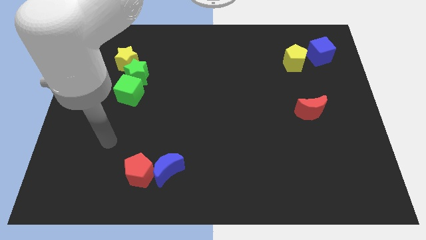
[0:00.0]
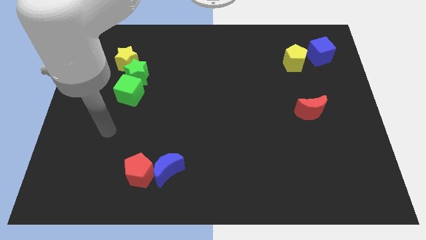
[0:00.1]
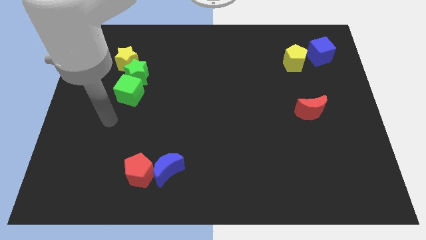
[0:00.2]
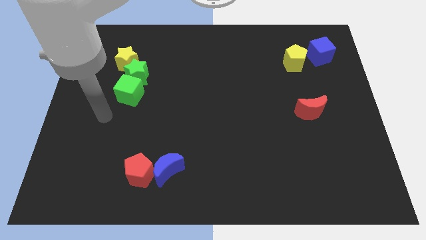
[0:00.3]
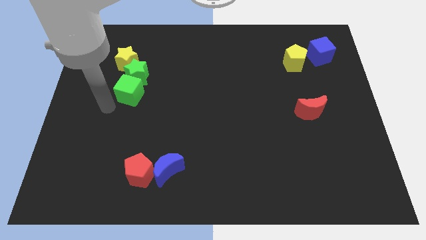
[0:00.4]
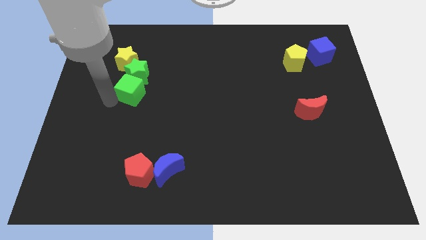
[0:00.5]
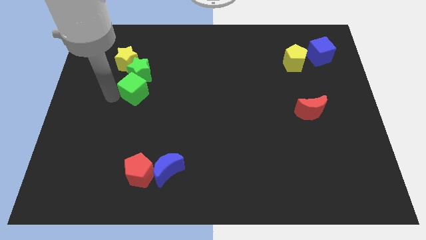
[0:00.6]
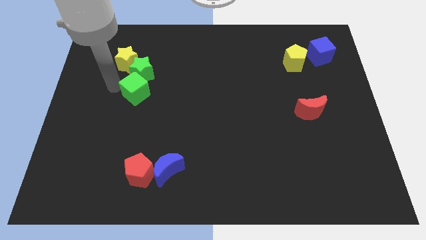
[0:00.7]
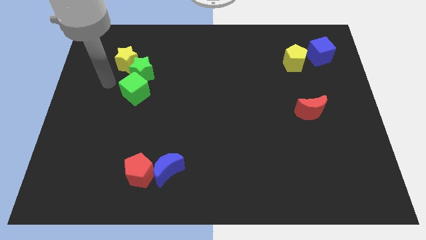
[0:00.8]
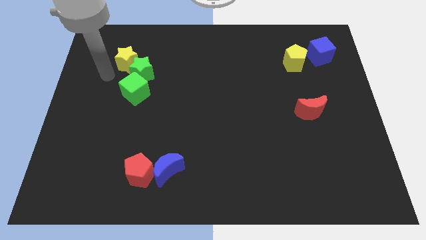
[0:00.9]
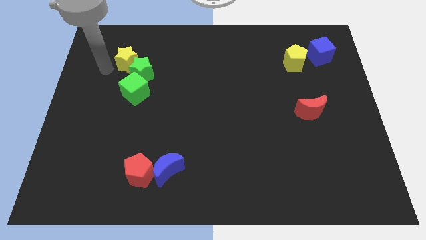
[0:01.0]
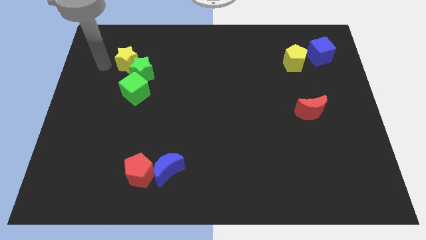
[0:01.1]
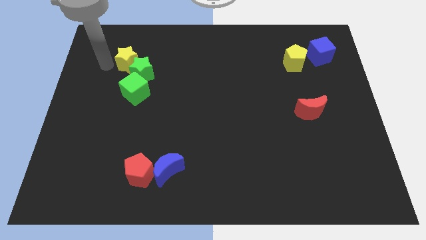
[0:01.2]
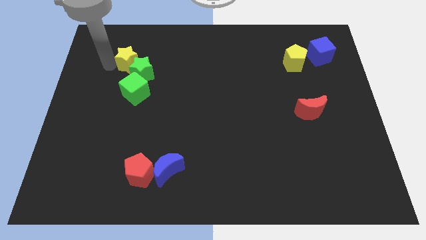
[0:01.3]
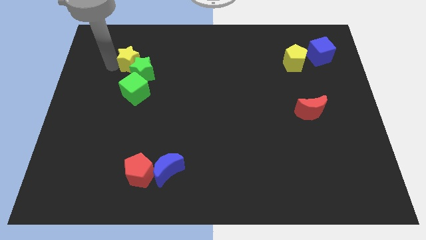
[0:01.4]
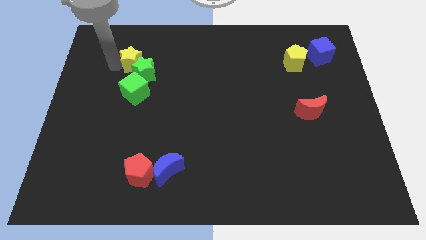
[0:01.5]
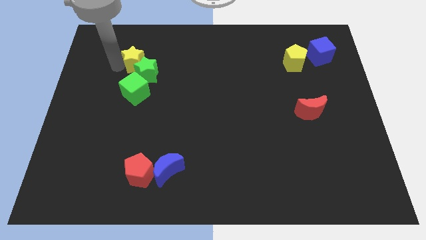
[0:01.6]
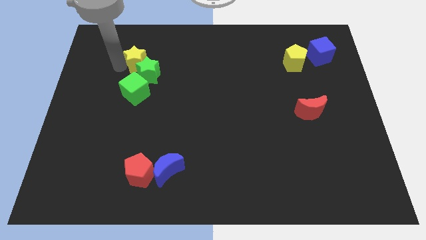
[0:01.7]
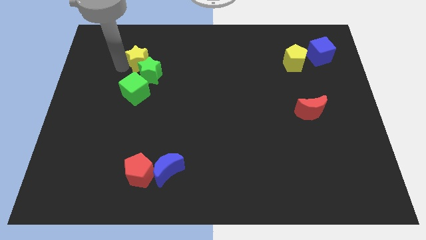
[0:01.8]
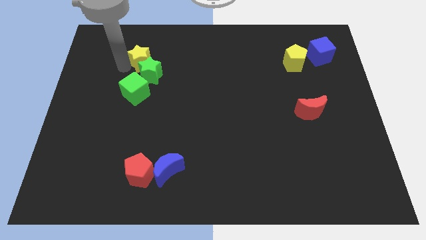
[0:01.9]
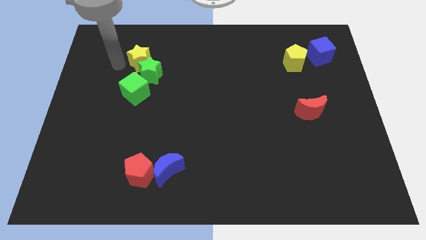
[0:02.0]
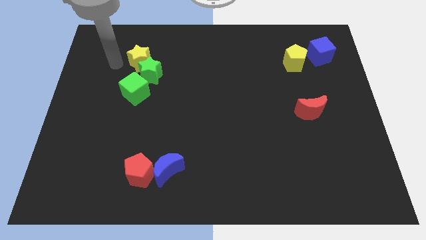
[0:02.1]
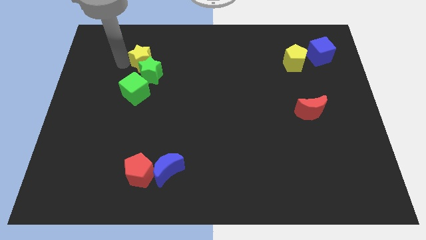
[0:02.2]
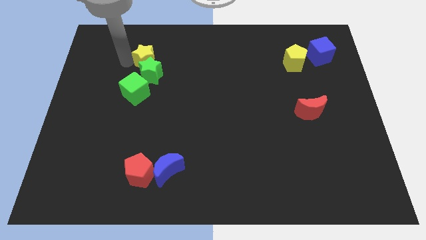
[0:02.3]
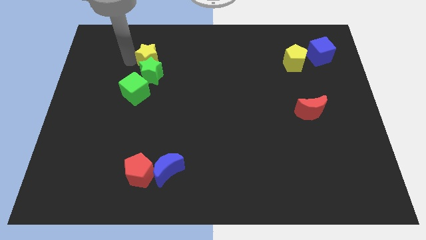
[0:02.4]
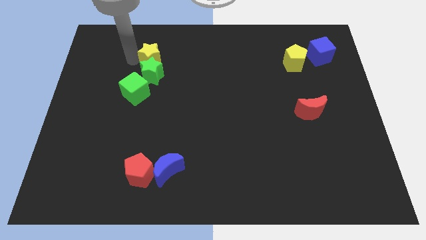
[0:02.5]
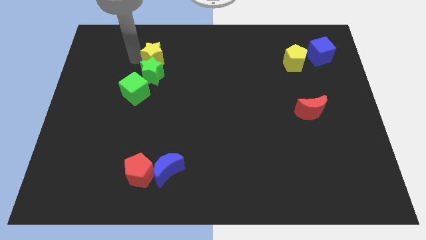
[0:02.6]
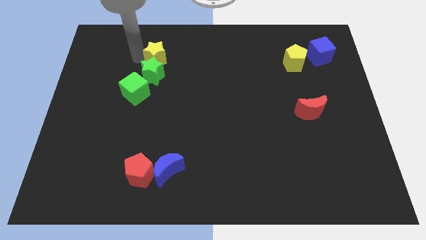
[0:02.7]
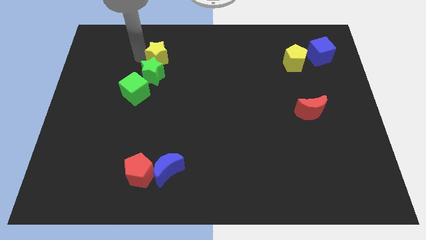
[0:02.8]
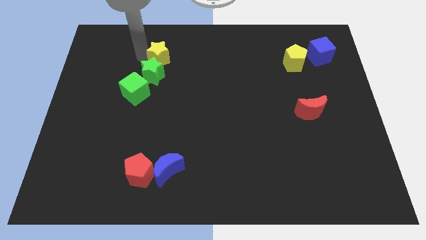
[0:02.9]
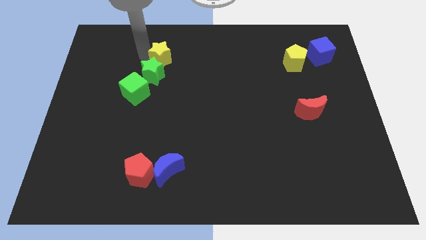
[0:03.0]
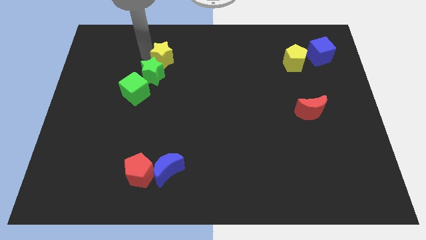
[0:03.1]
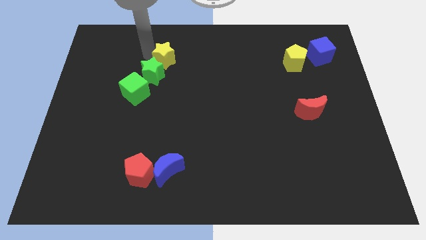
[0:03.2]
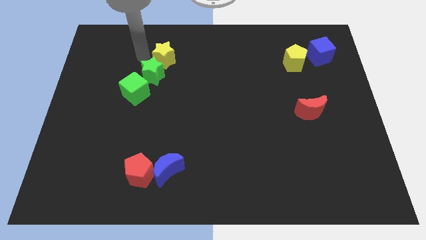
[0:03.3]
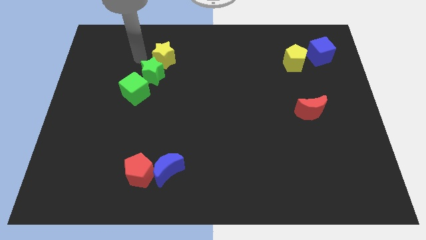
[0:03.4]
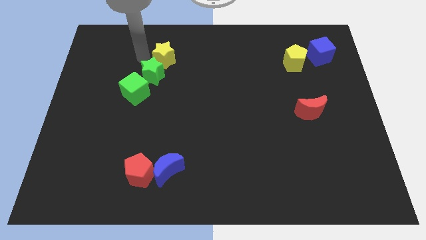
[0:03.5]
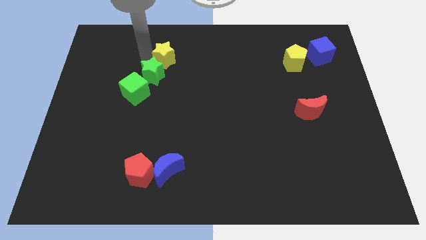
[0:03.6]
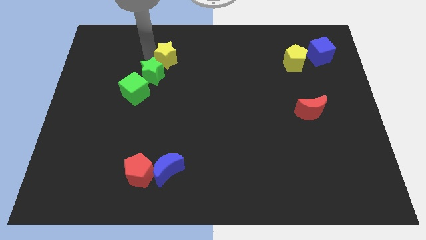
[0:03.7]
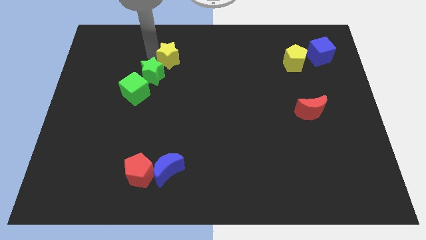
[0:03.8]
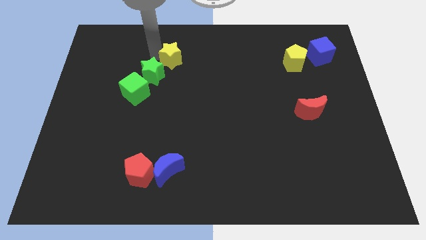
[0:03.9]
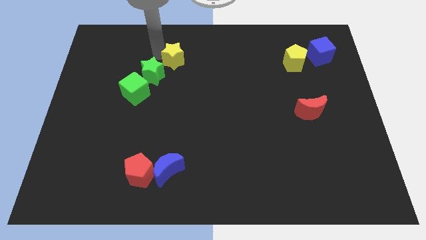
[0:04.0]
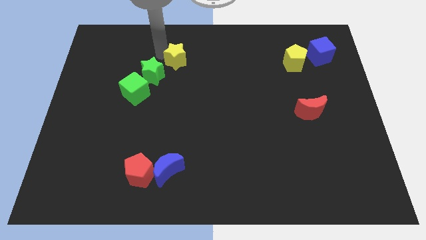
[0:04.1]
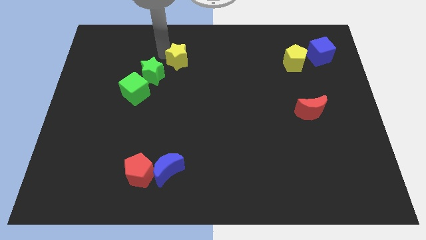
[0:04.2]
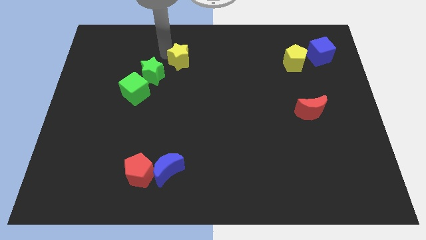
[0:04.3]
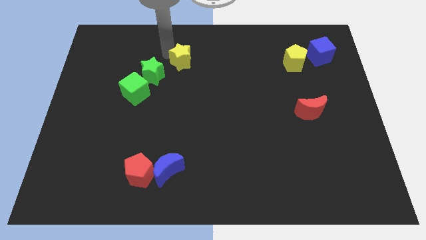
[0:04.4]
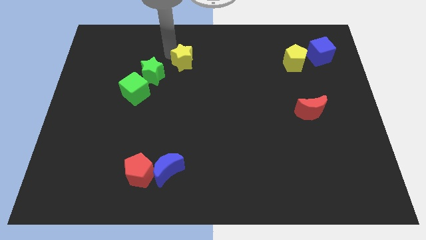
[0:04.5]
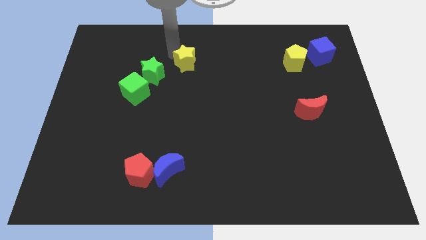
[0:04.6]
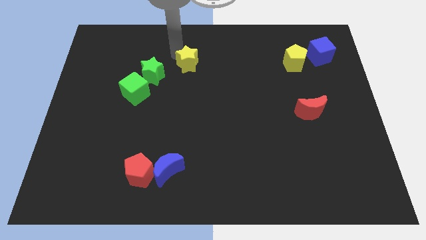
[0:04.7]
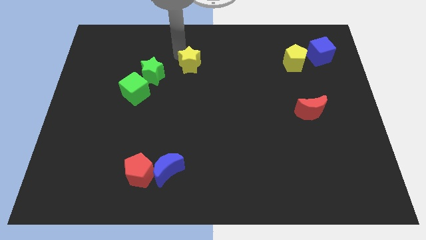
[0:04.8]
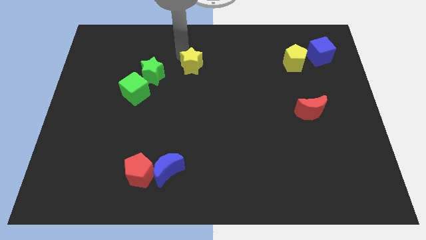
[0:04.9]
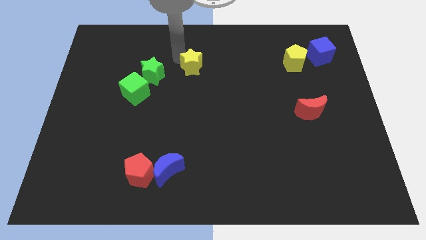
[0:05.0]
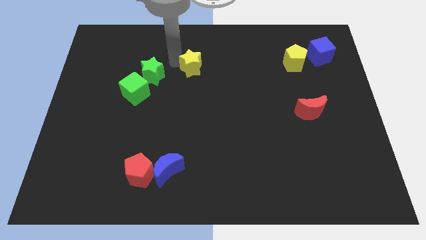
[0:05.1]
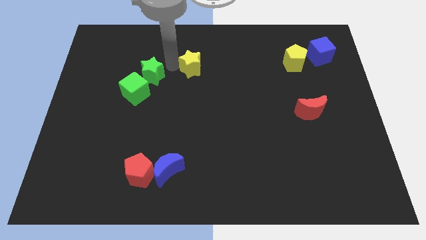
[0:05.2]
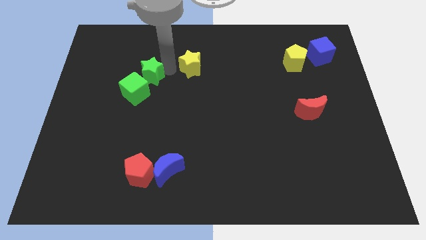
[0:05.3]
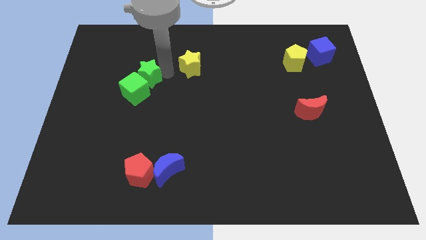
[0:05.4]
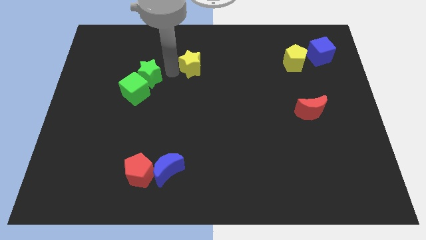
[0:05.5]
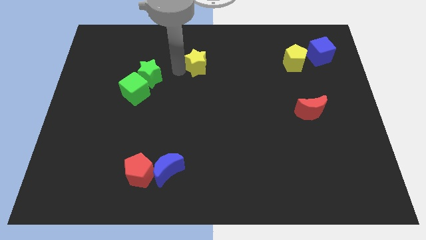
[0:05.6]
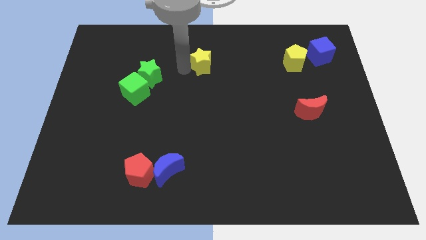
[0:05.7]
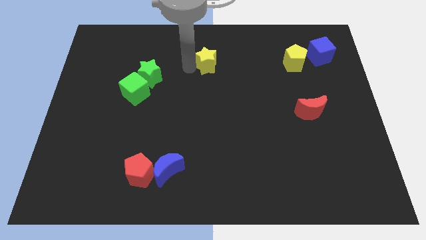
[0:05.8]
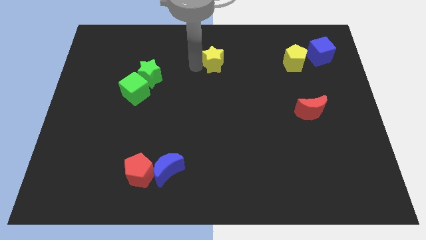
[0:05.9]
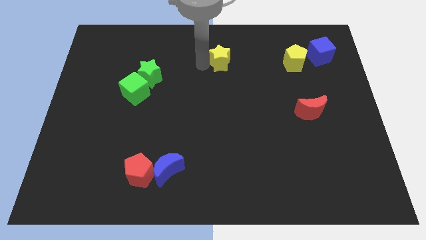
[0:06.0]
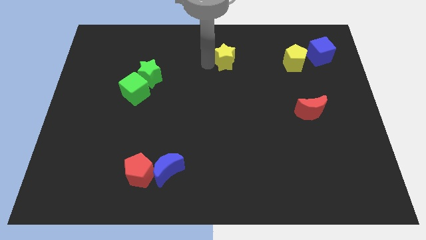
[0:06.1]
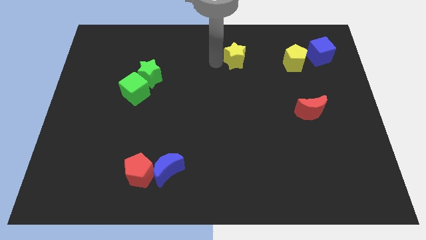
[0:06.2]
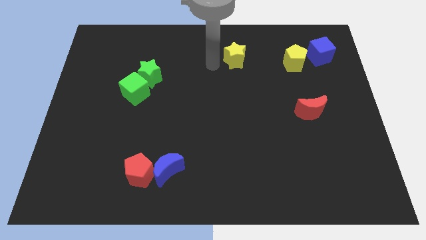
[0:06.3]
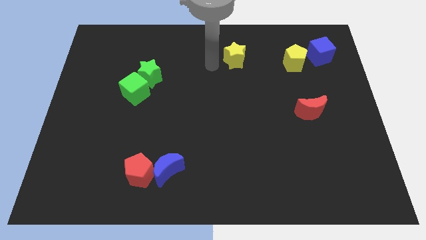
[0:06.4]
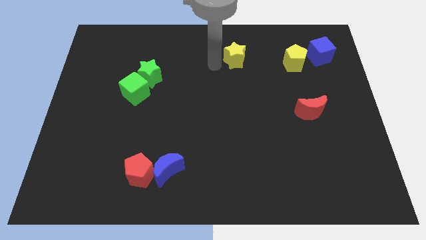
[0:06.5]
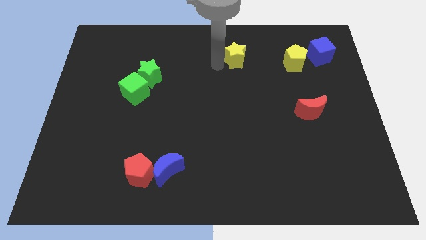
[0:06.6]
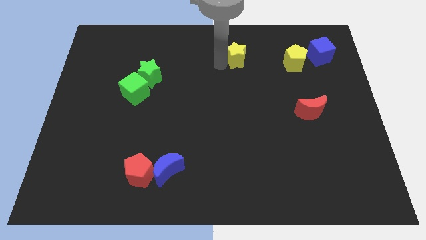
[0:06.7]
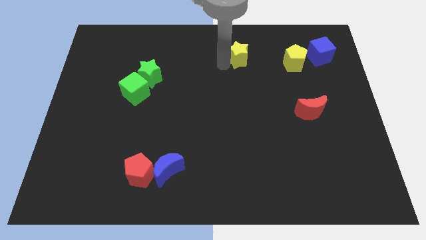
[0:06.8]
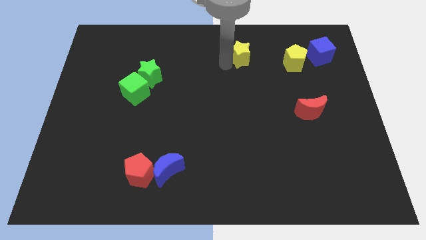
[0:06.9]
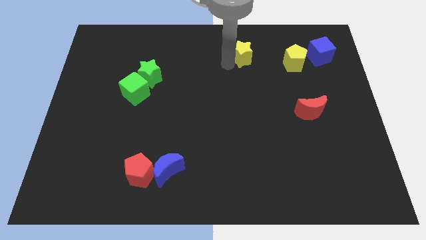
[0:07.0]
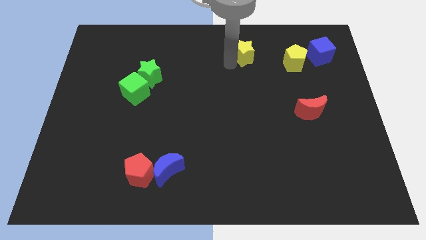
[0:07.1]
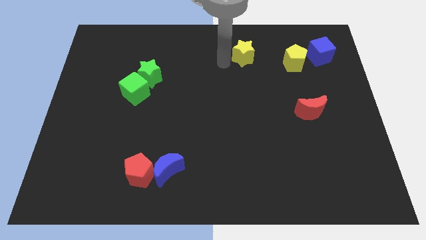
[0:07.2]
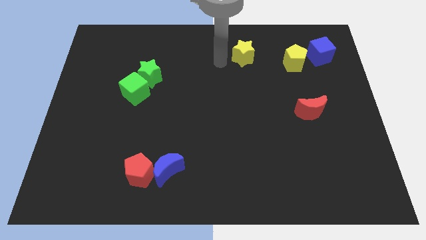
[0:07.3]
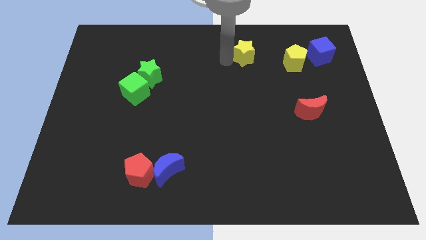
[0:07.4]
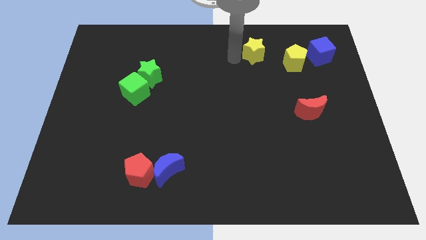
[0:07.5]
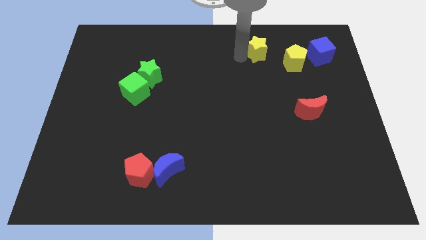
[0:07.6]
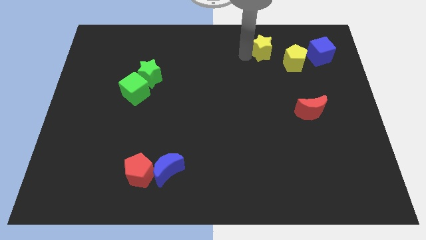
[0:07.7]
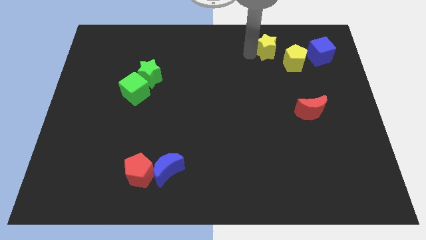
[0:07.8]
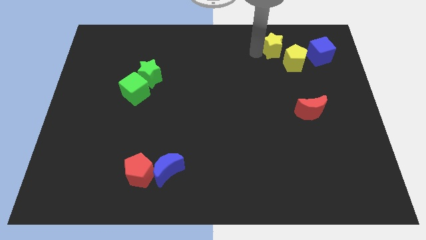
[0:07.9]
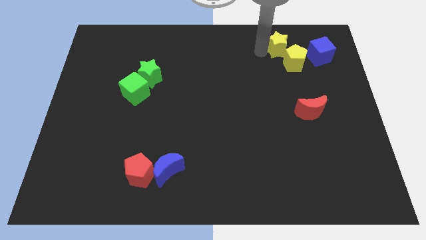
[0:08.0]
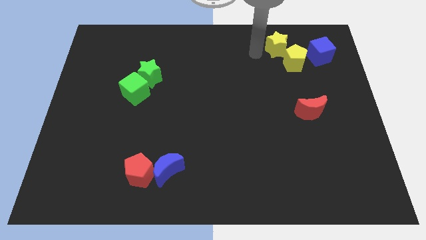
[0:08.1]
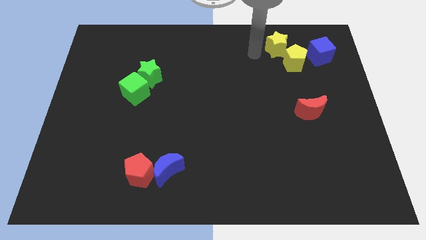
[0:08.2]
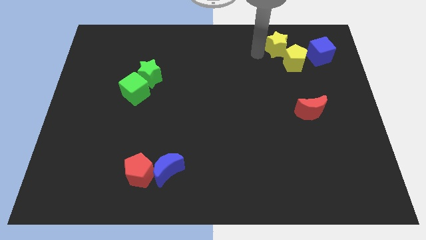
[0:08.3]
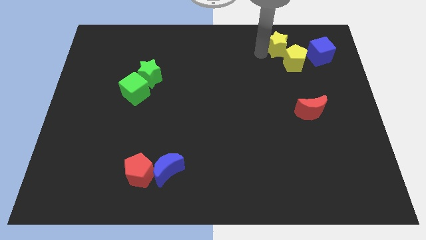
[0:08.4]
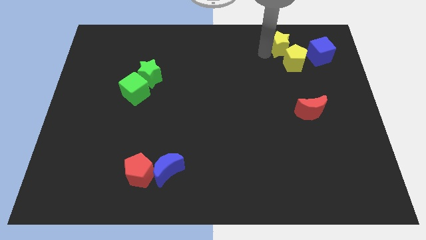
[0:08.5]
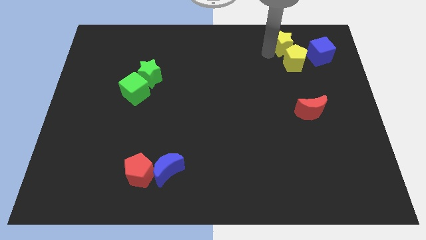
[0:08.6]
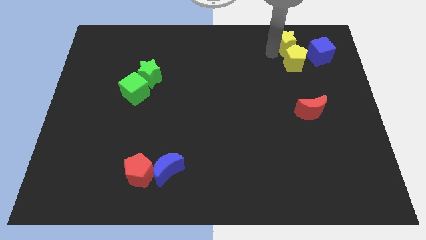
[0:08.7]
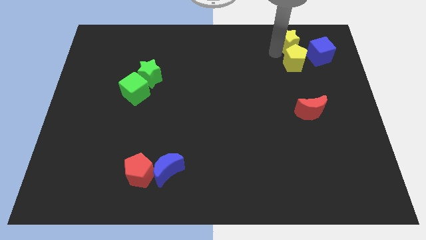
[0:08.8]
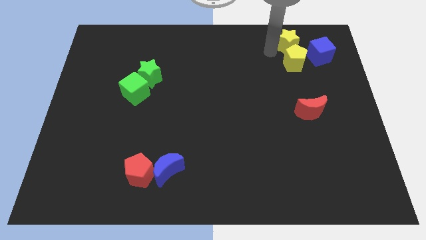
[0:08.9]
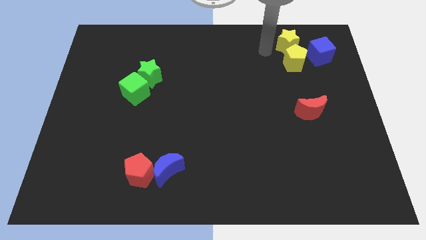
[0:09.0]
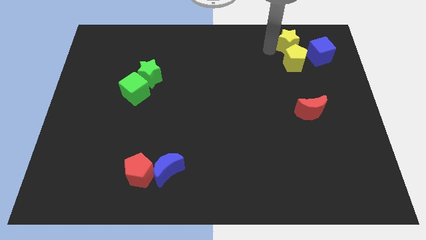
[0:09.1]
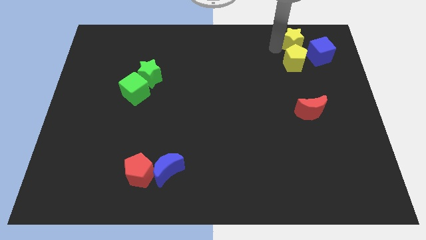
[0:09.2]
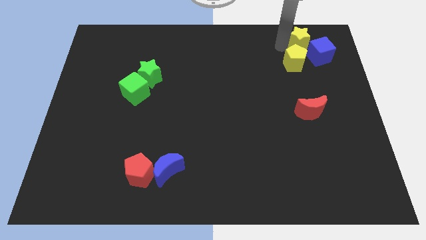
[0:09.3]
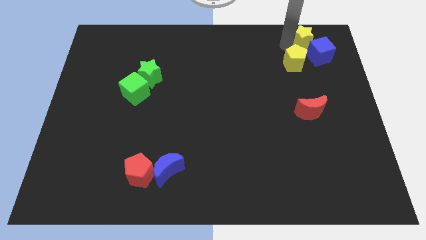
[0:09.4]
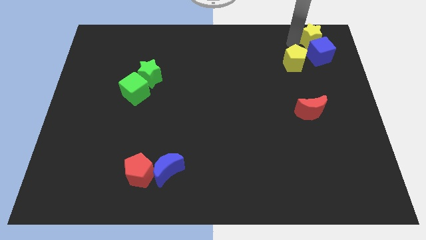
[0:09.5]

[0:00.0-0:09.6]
push the yellow star to the upper right corner
